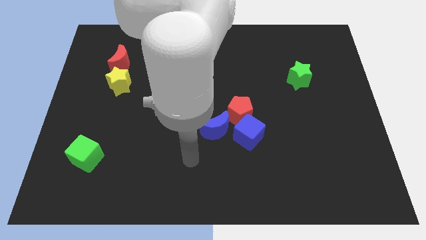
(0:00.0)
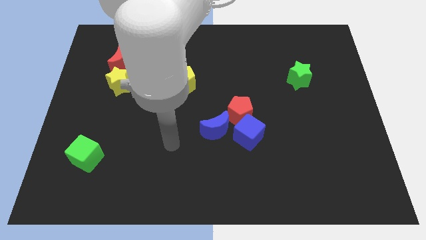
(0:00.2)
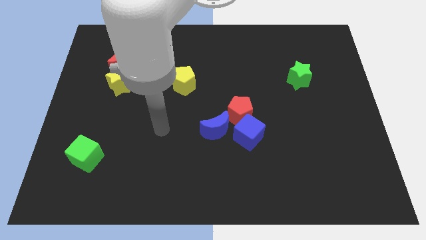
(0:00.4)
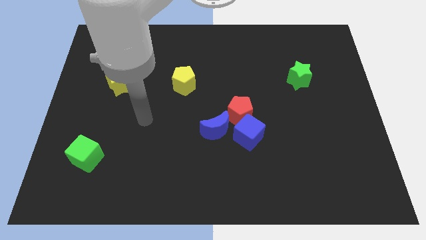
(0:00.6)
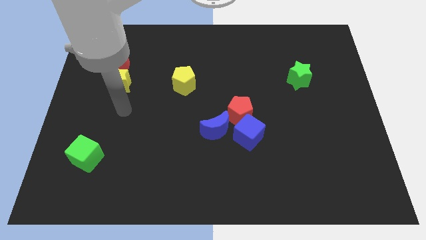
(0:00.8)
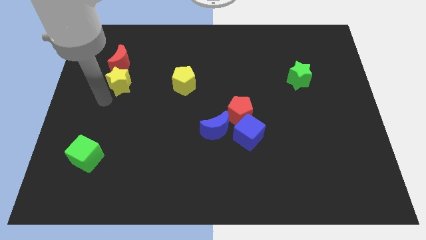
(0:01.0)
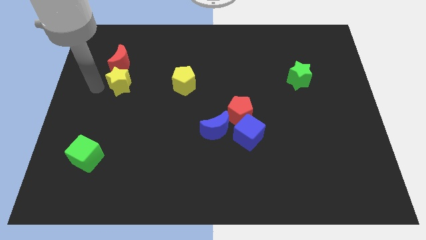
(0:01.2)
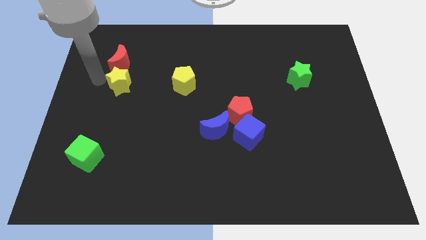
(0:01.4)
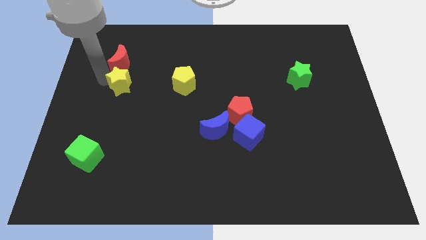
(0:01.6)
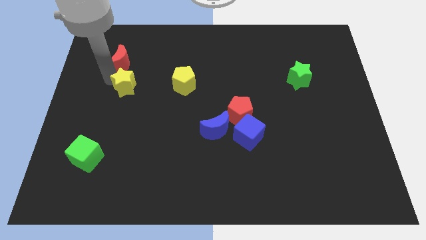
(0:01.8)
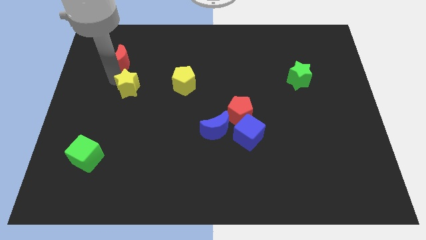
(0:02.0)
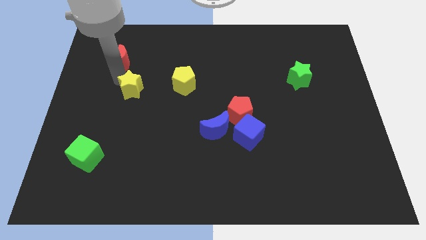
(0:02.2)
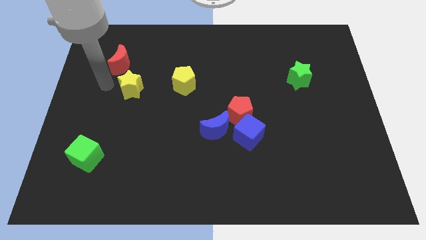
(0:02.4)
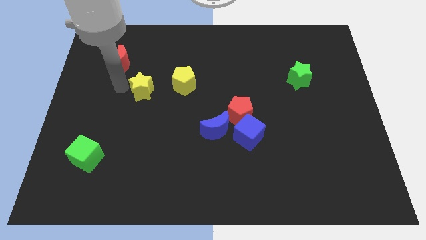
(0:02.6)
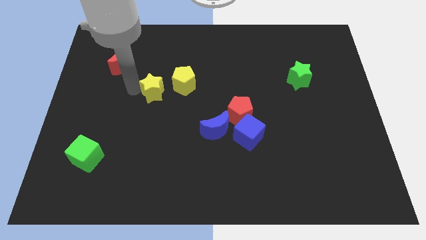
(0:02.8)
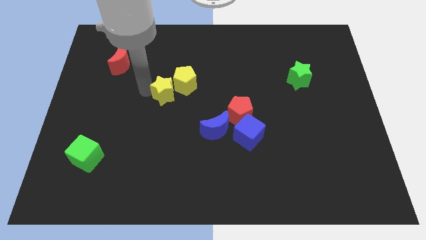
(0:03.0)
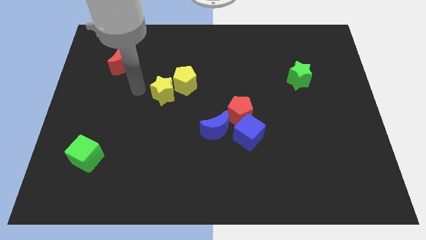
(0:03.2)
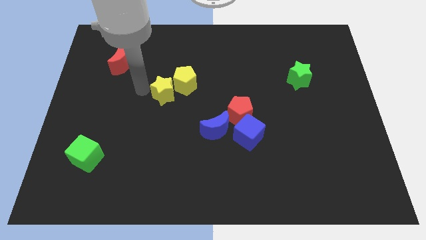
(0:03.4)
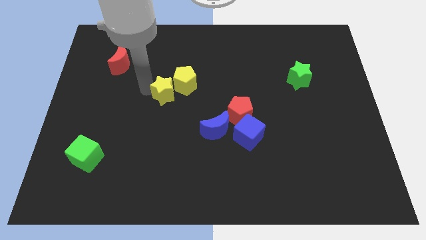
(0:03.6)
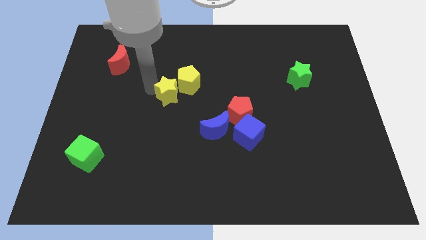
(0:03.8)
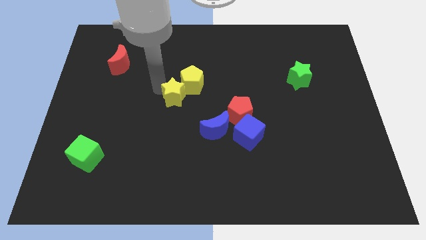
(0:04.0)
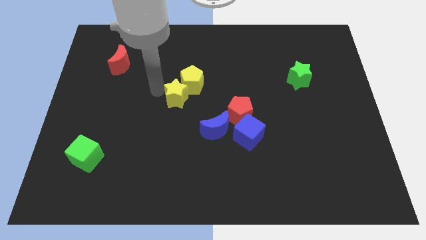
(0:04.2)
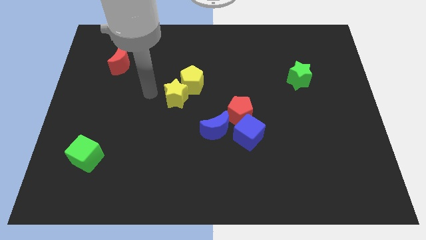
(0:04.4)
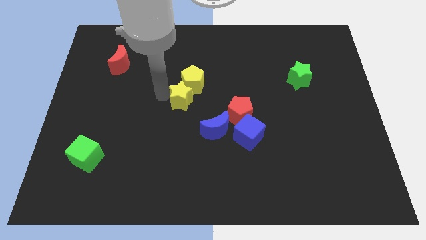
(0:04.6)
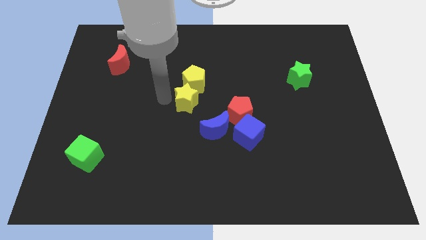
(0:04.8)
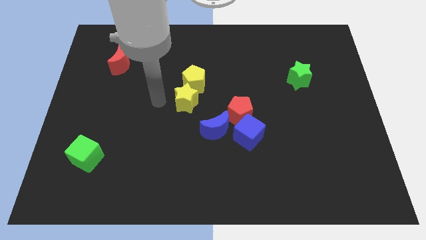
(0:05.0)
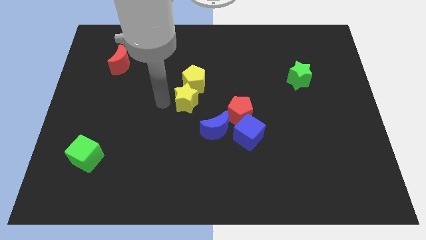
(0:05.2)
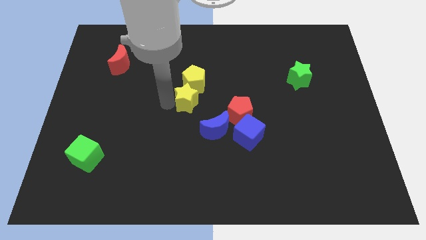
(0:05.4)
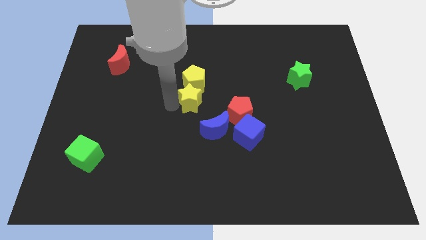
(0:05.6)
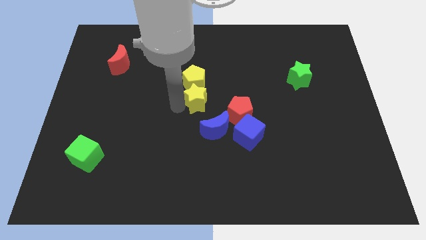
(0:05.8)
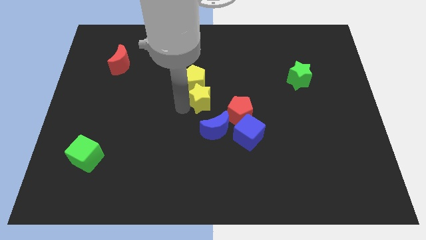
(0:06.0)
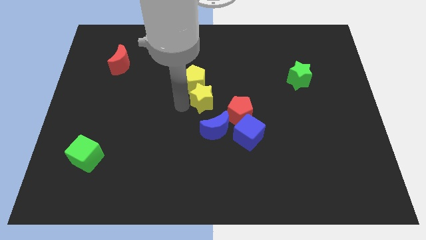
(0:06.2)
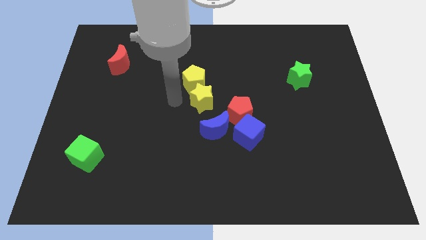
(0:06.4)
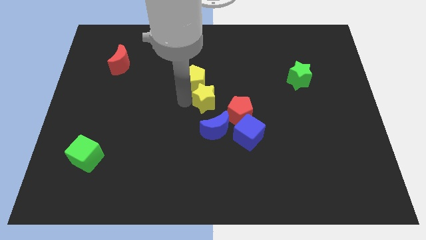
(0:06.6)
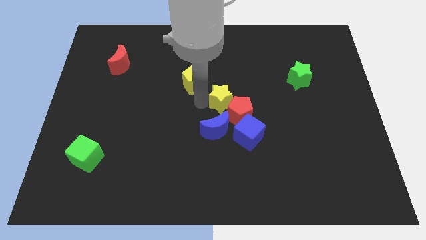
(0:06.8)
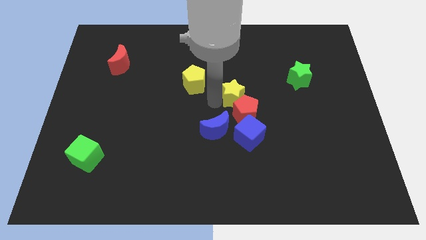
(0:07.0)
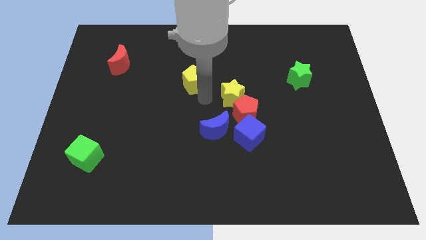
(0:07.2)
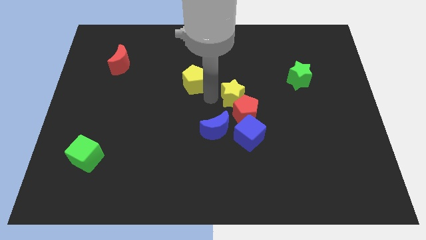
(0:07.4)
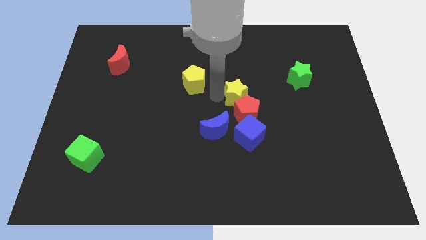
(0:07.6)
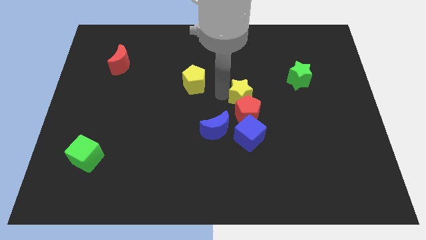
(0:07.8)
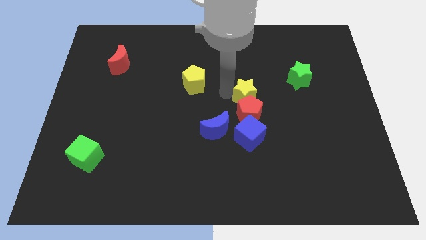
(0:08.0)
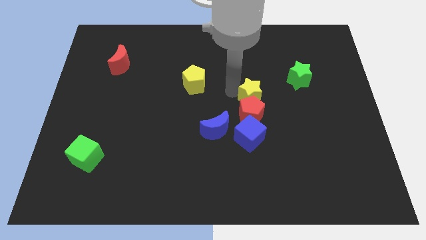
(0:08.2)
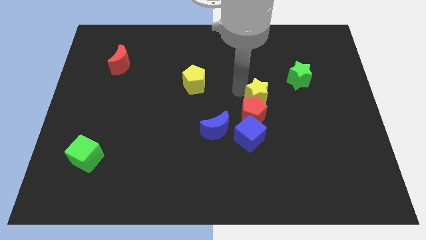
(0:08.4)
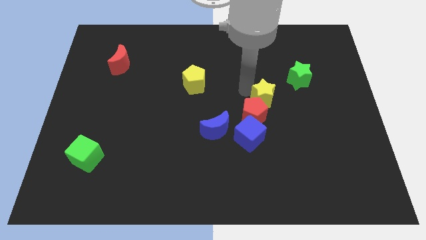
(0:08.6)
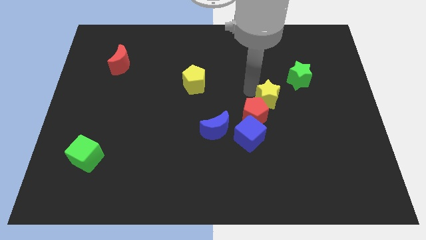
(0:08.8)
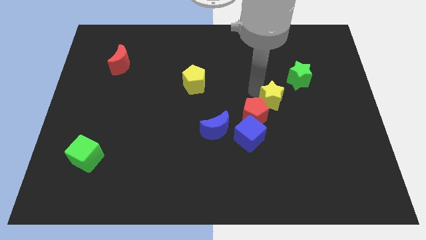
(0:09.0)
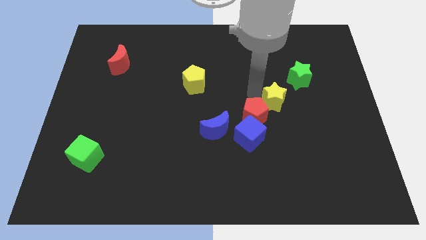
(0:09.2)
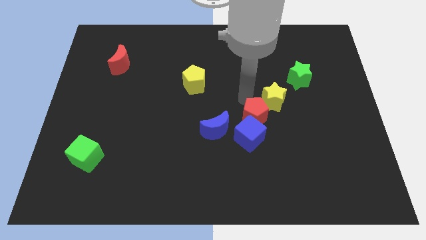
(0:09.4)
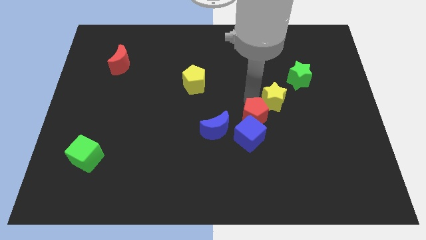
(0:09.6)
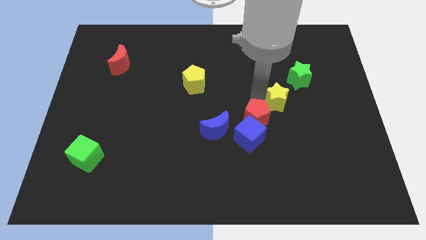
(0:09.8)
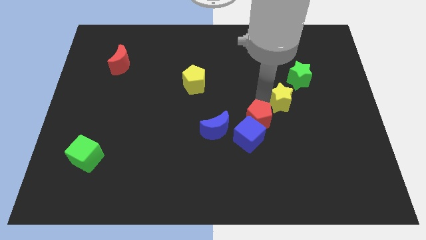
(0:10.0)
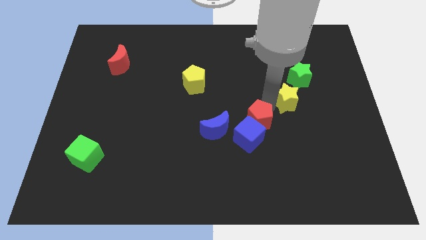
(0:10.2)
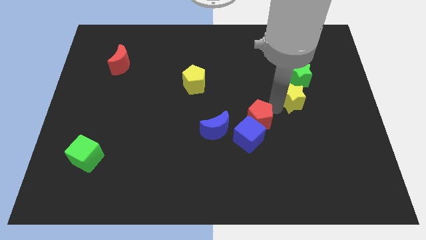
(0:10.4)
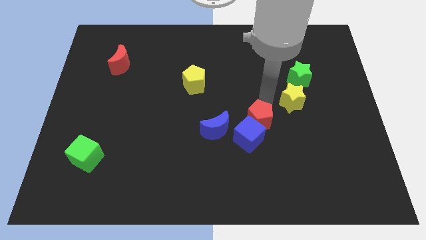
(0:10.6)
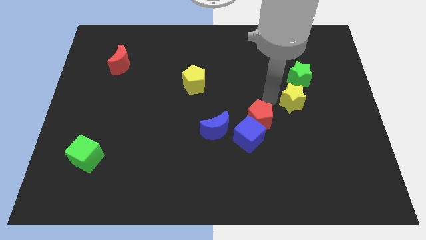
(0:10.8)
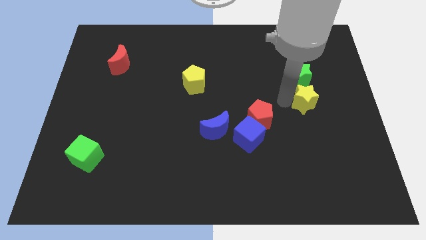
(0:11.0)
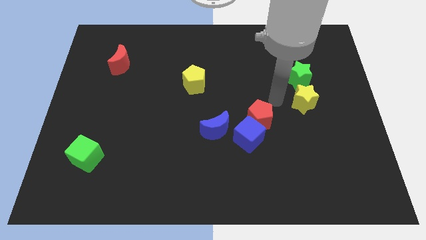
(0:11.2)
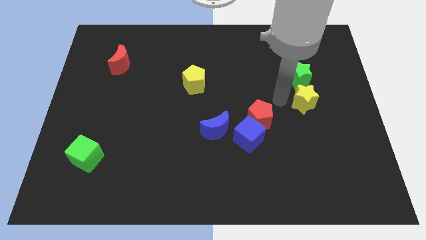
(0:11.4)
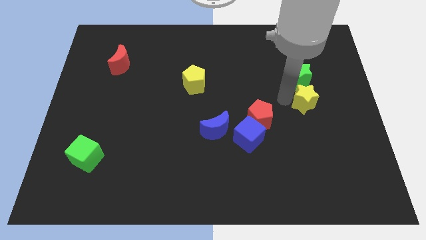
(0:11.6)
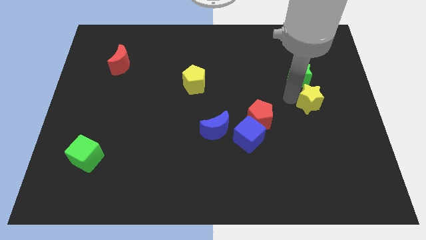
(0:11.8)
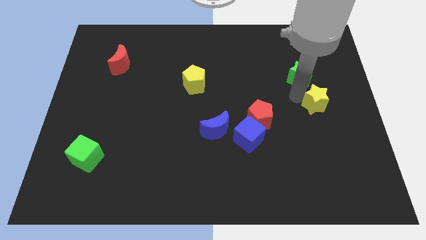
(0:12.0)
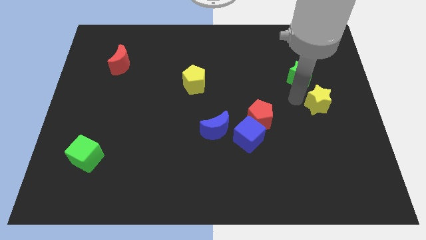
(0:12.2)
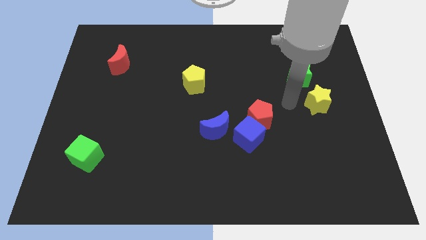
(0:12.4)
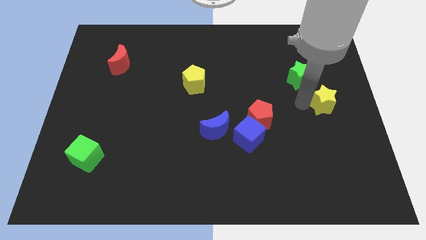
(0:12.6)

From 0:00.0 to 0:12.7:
push the yellow star to the right side
